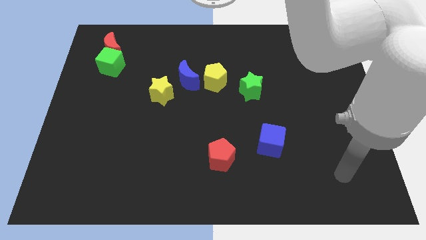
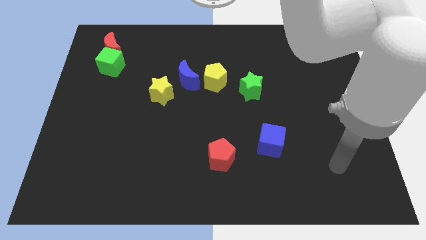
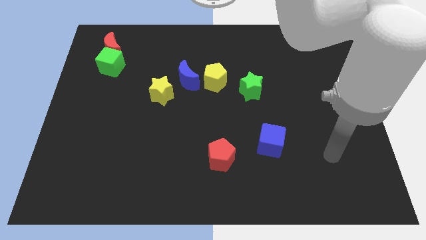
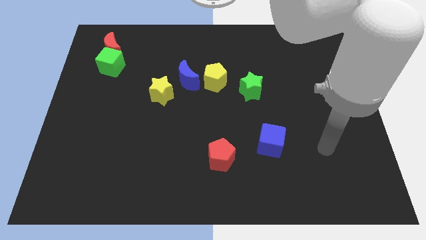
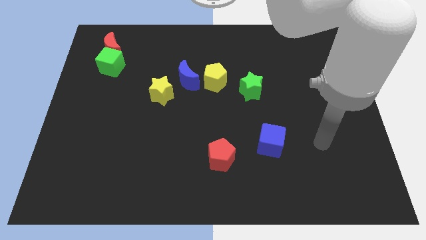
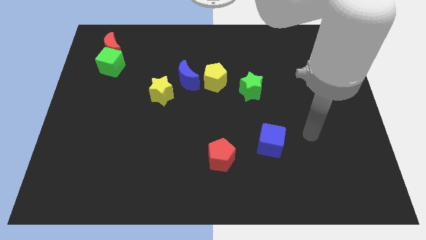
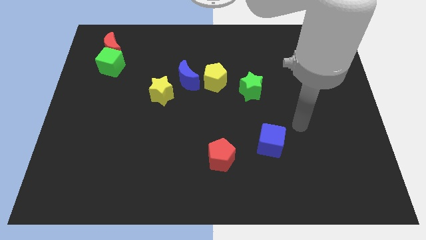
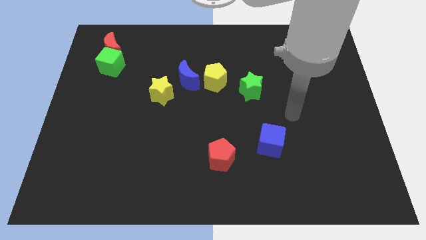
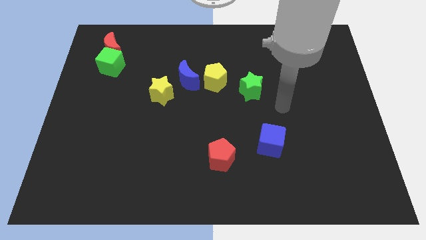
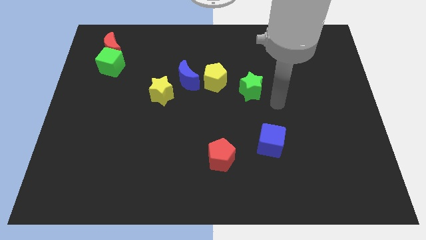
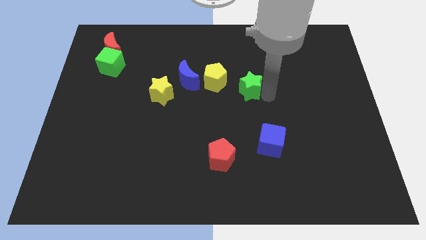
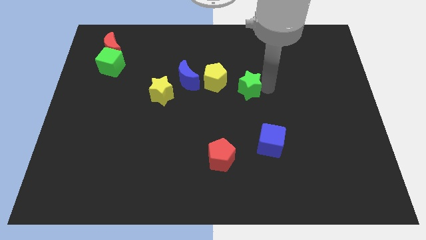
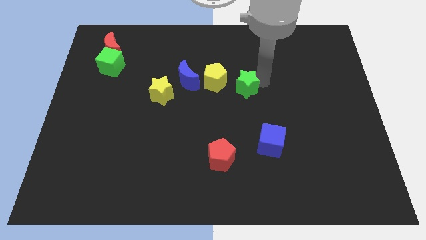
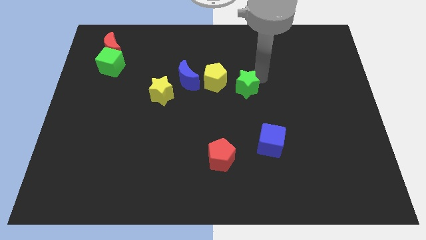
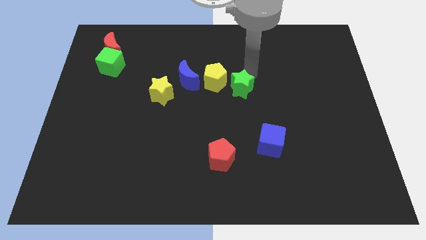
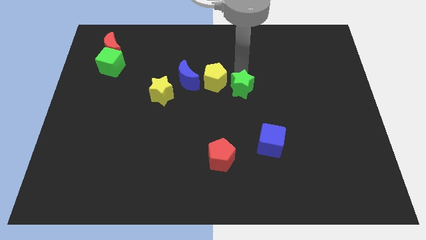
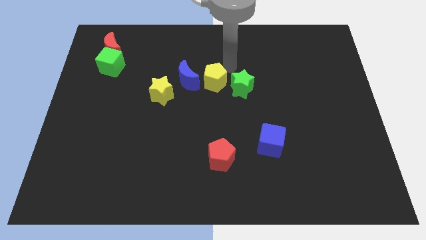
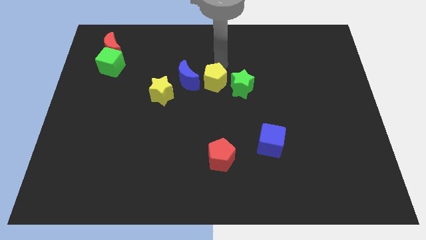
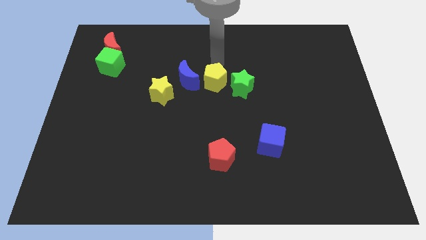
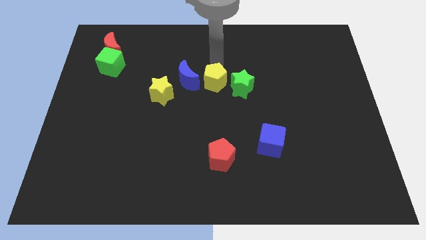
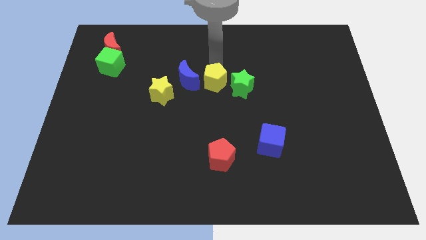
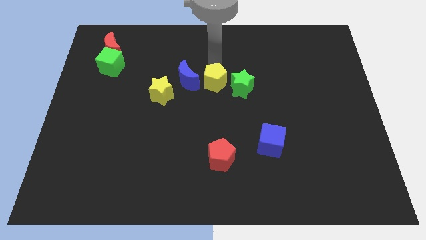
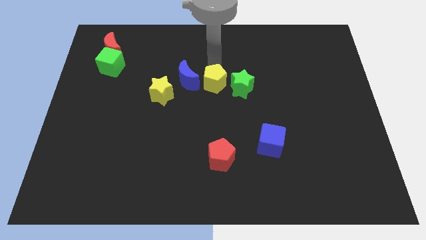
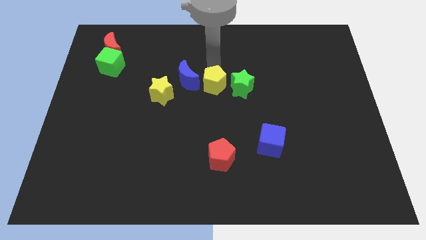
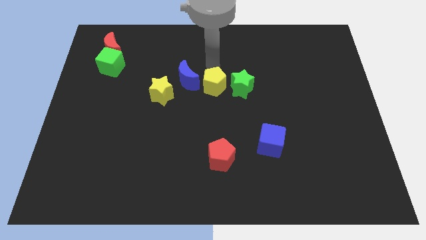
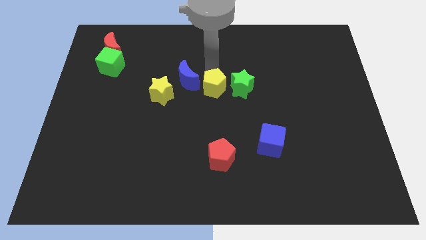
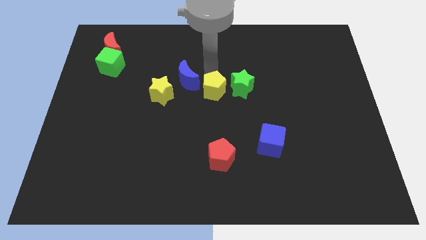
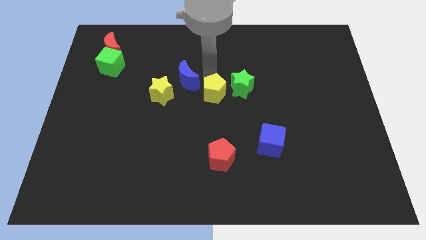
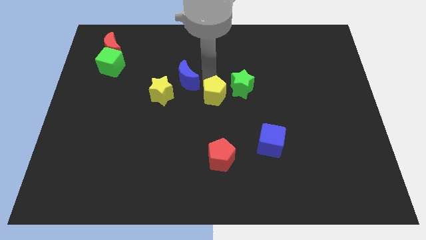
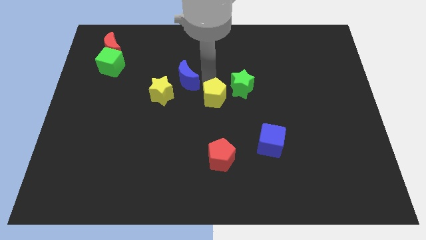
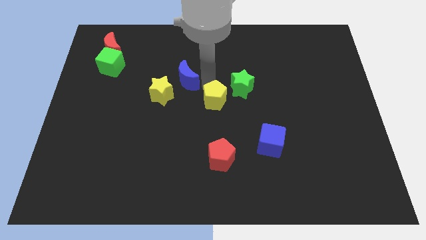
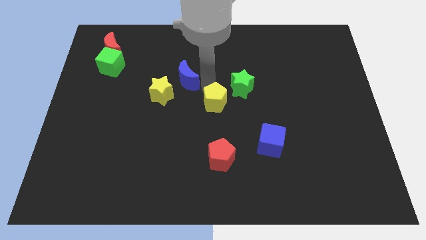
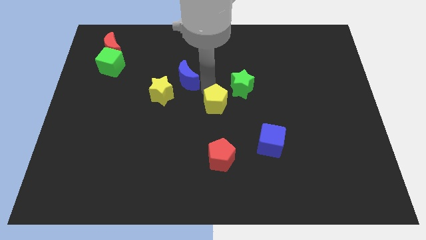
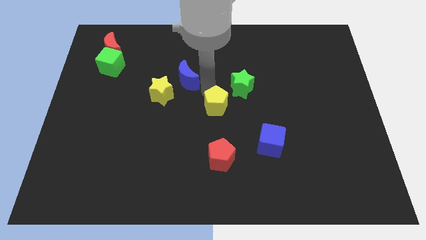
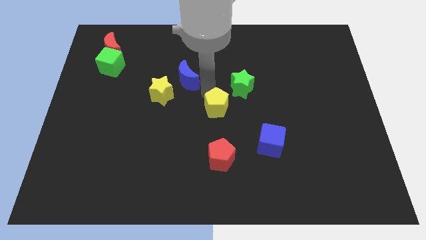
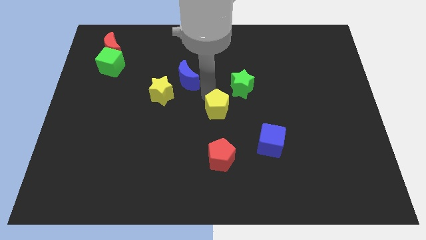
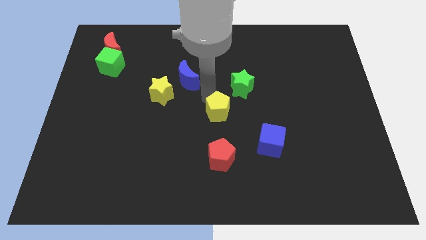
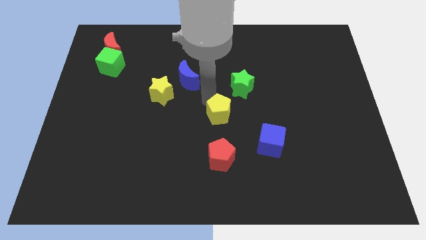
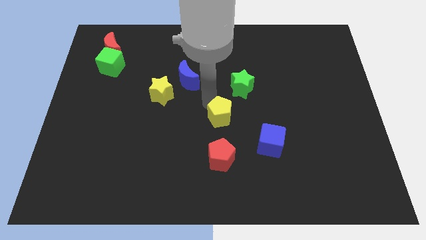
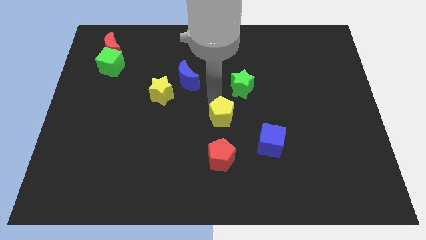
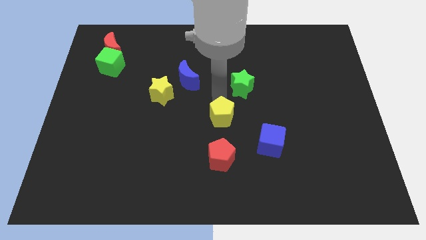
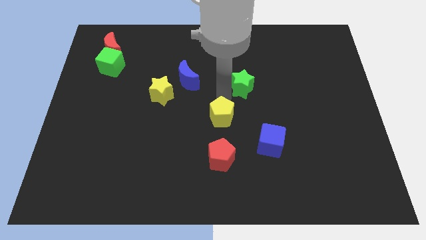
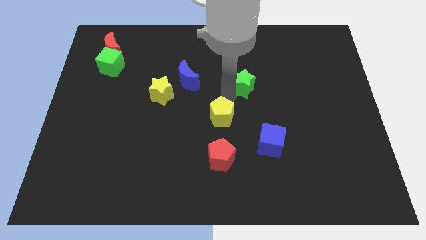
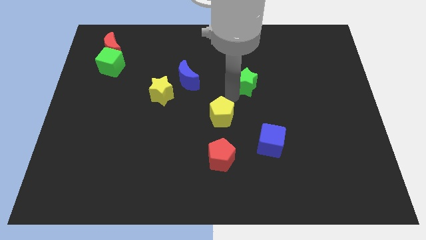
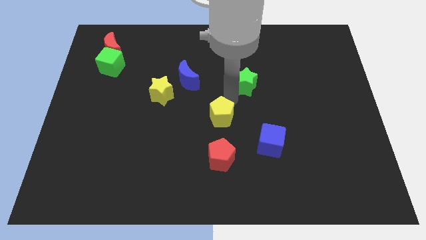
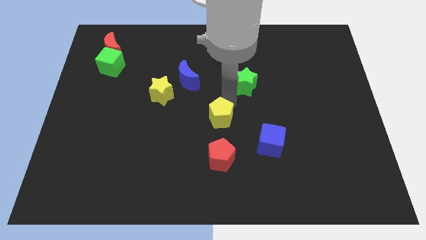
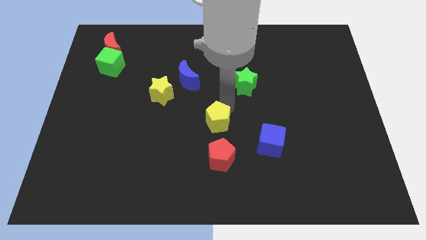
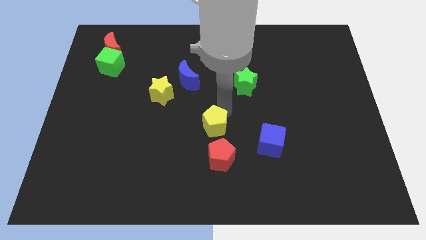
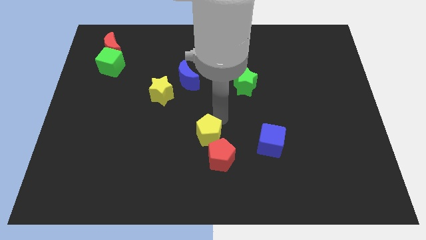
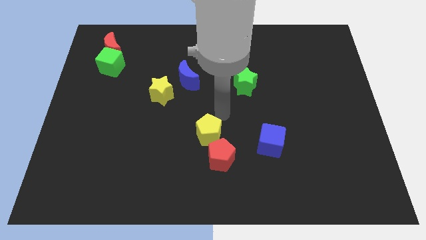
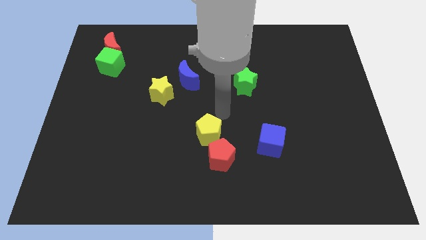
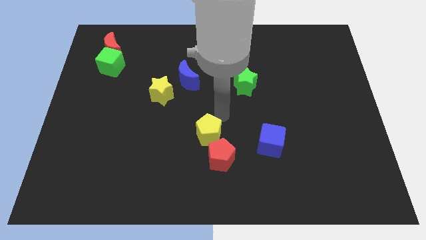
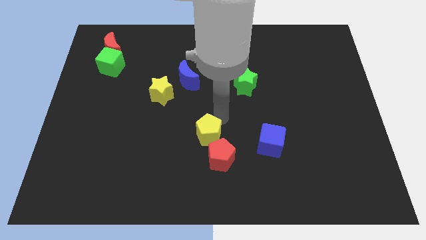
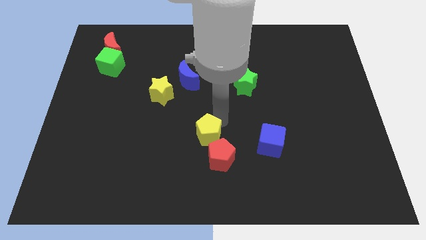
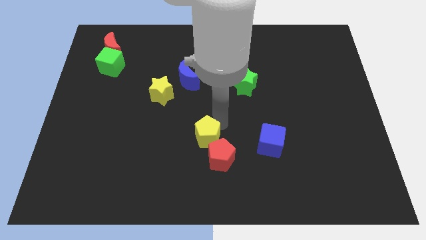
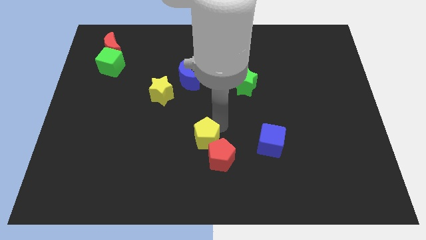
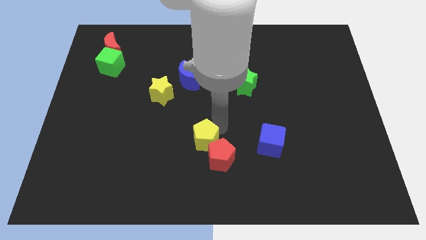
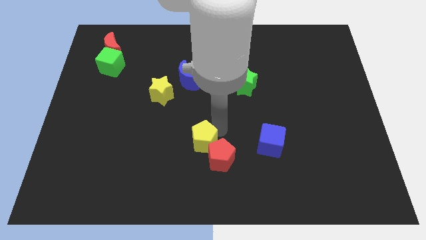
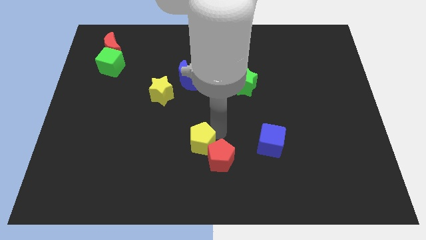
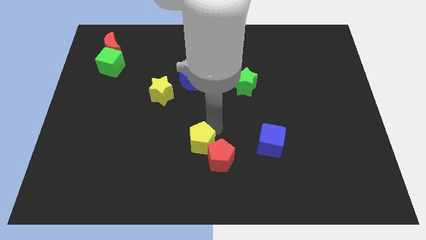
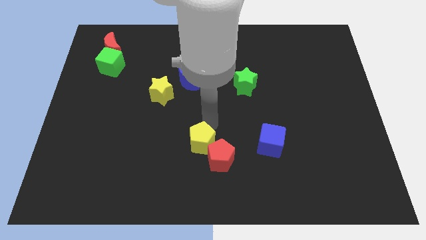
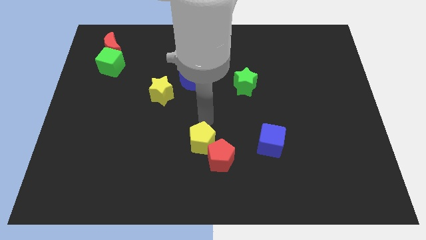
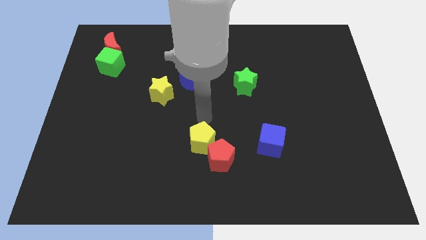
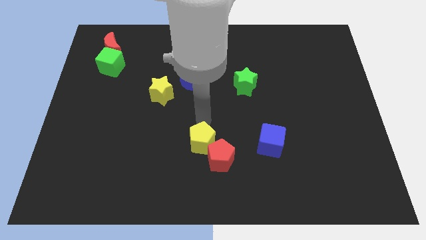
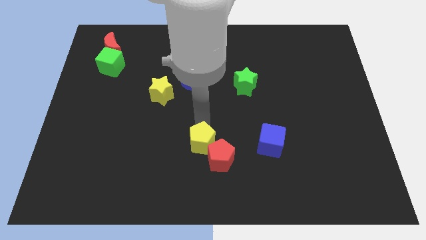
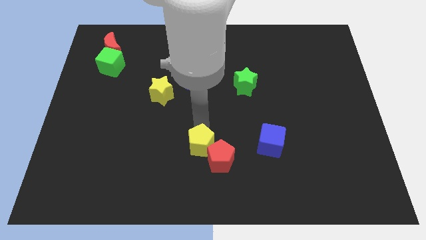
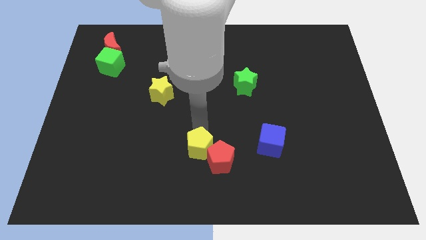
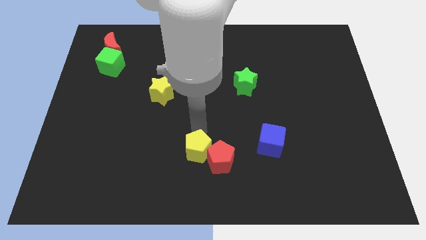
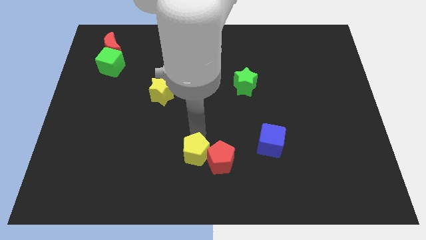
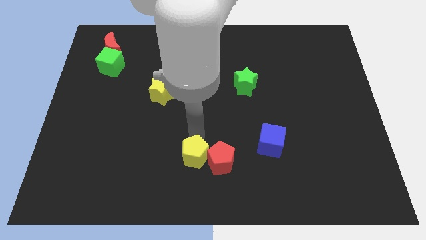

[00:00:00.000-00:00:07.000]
move the yellow pentagon to the bottom side

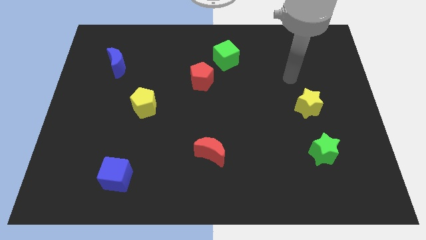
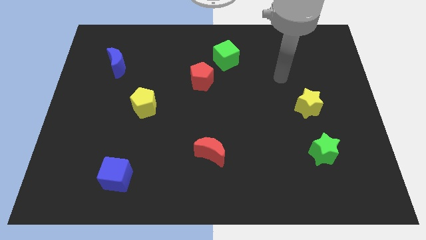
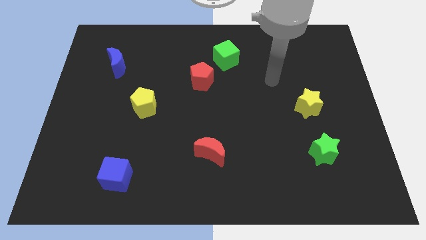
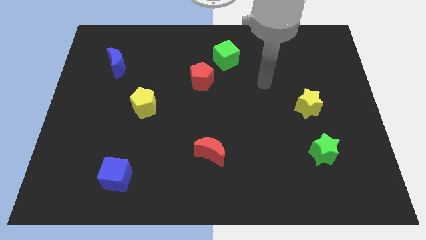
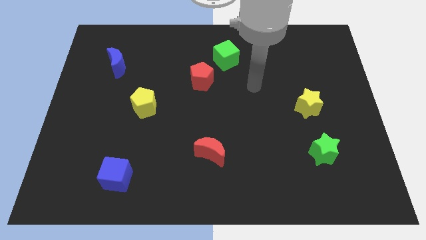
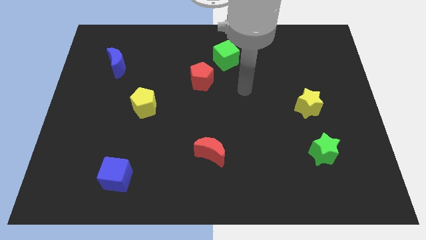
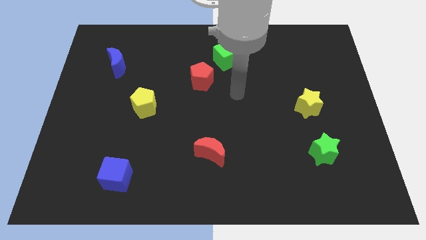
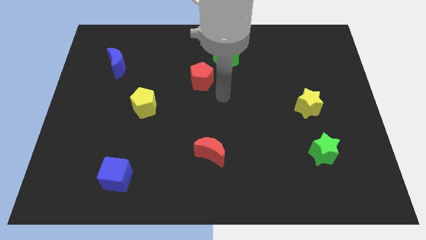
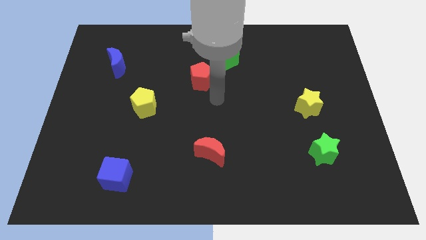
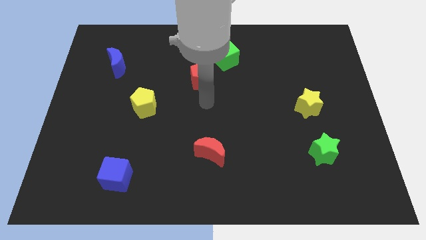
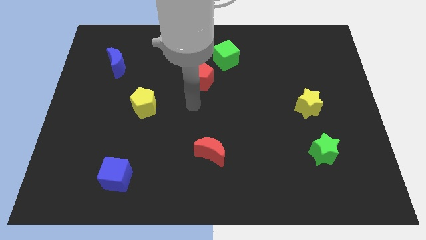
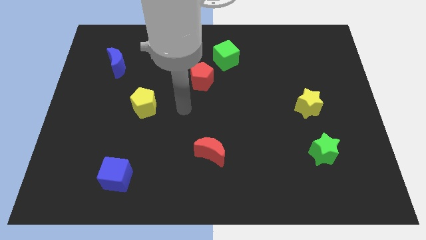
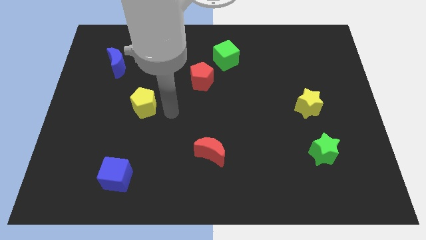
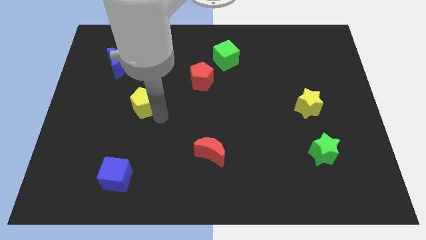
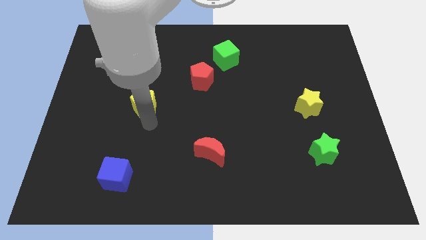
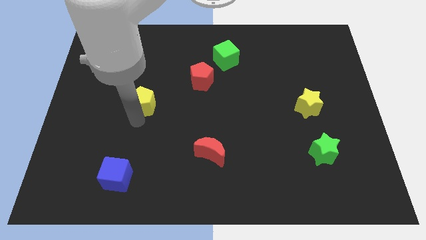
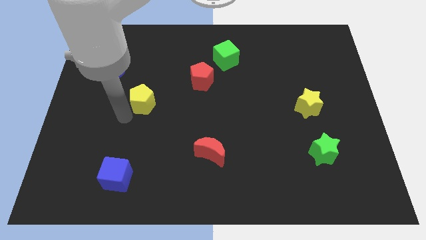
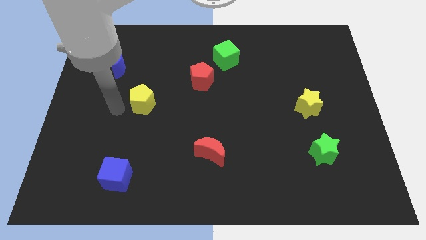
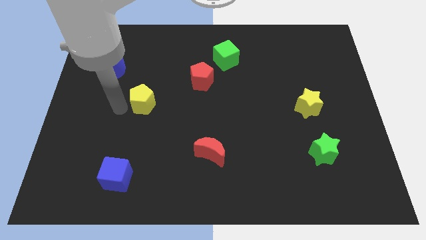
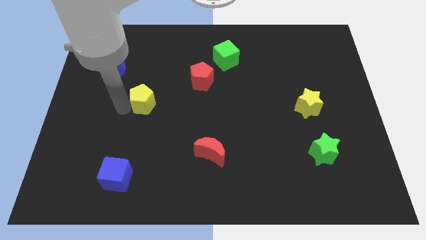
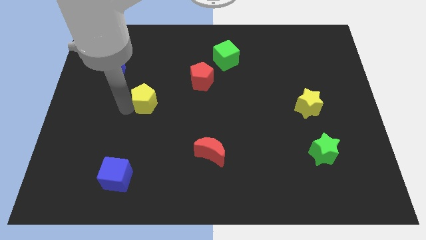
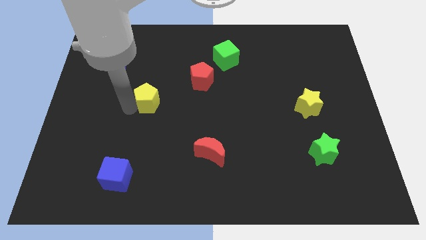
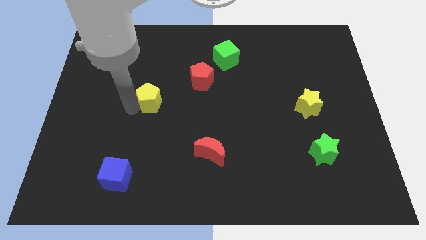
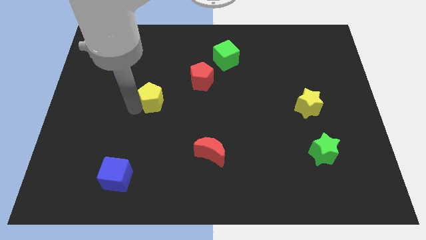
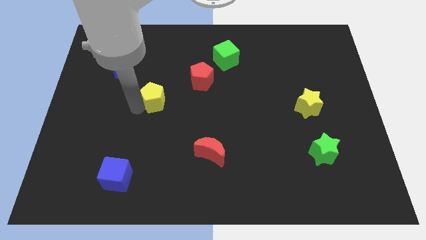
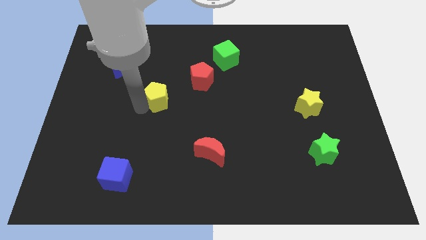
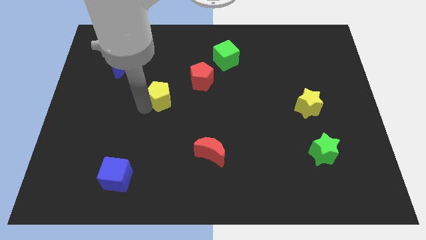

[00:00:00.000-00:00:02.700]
move the yellow pentagon to the middle of the board
